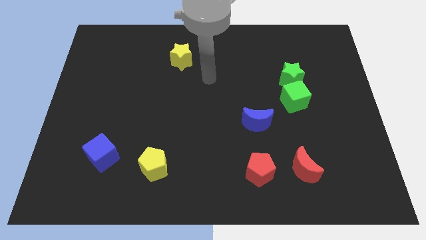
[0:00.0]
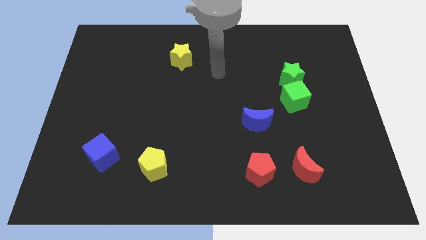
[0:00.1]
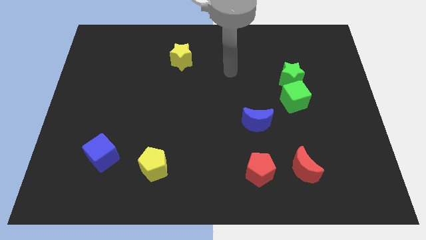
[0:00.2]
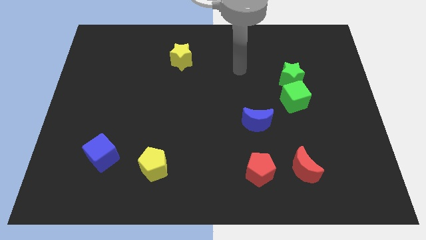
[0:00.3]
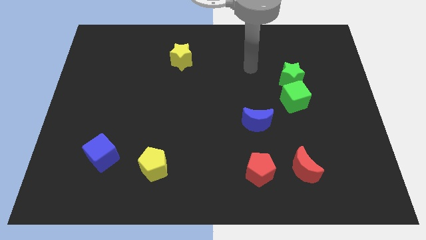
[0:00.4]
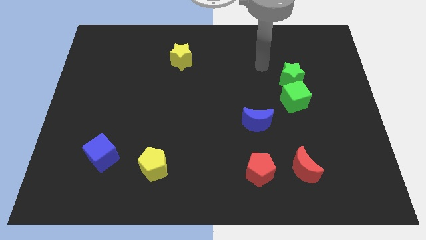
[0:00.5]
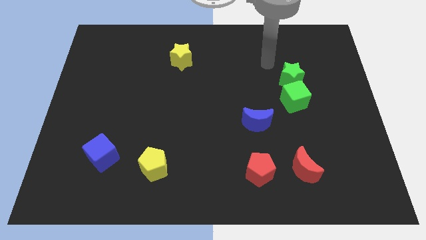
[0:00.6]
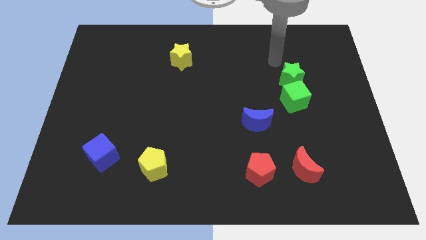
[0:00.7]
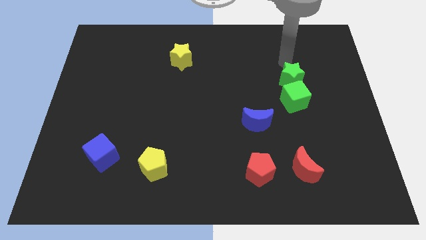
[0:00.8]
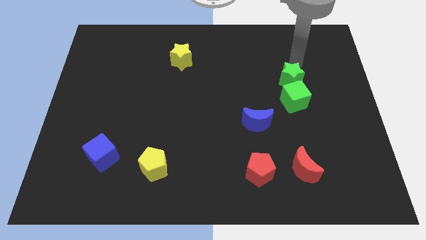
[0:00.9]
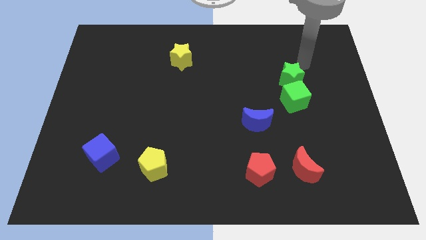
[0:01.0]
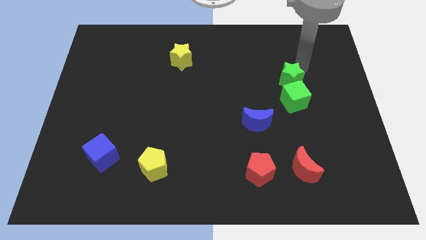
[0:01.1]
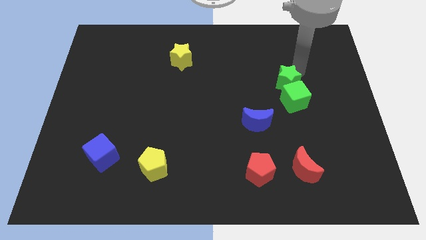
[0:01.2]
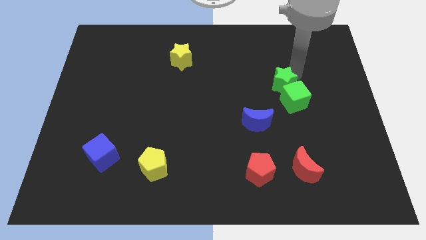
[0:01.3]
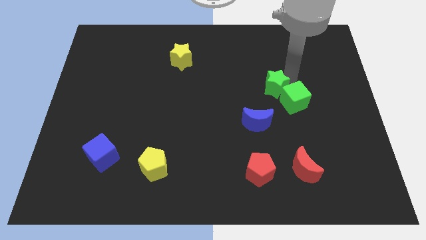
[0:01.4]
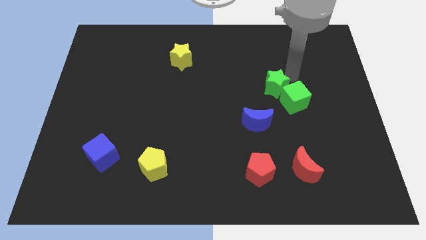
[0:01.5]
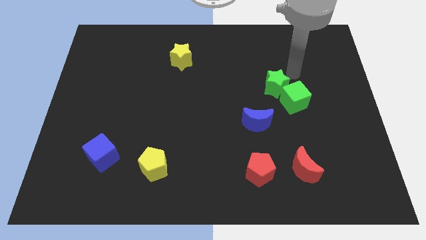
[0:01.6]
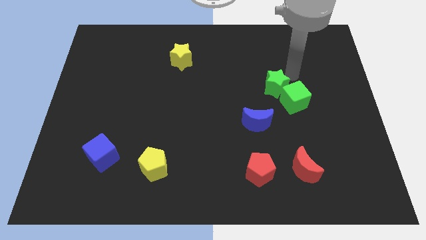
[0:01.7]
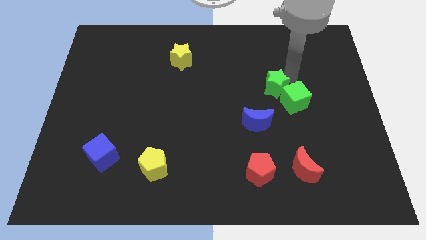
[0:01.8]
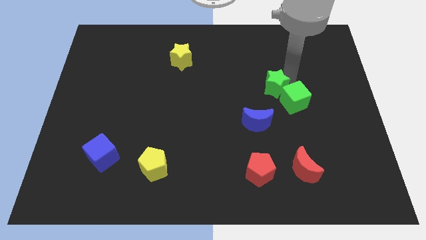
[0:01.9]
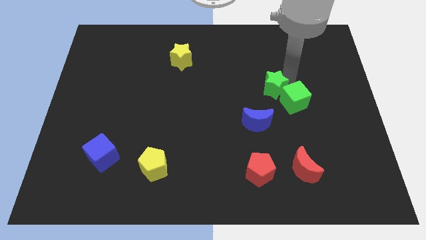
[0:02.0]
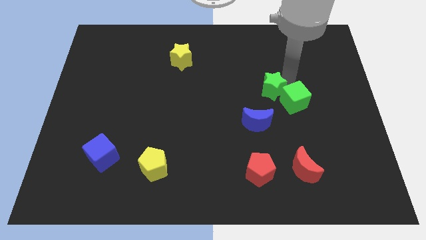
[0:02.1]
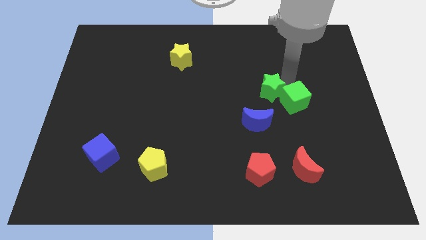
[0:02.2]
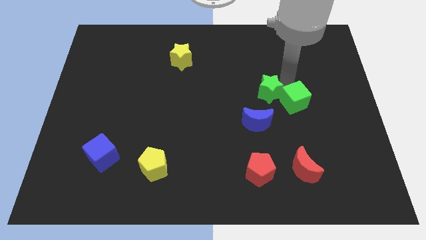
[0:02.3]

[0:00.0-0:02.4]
slide the green star down and then left a bit

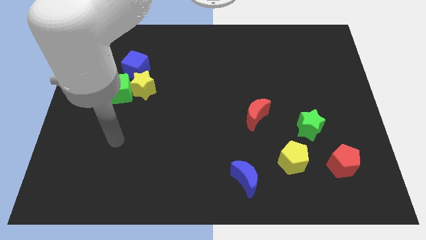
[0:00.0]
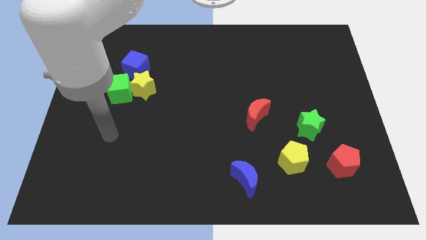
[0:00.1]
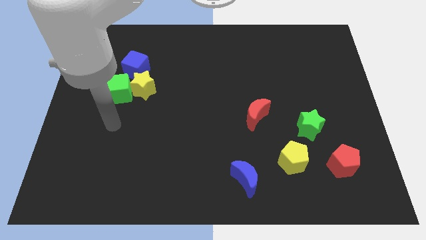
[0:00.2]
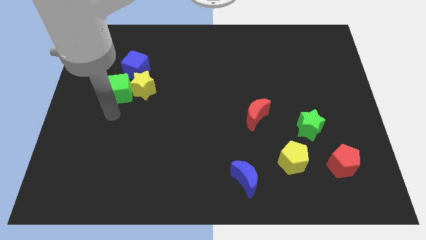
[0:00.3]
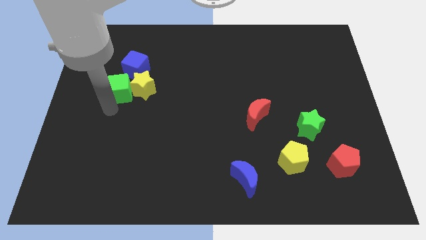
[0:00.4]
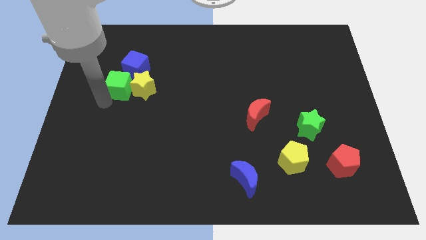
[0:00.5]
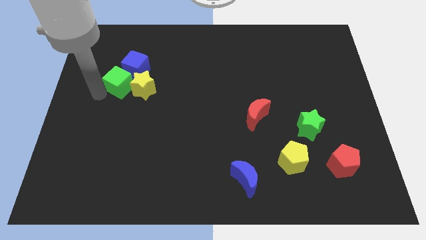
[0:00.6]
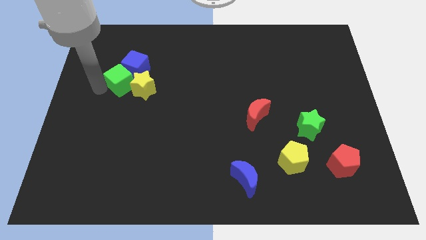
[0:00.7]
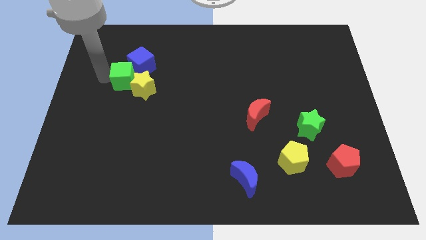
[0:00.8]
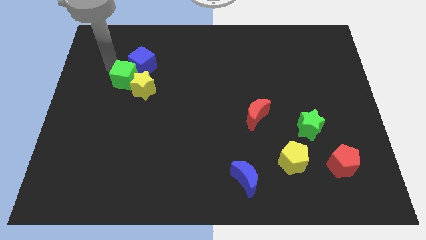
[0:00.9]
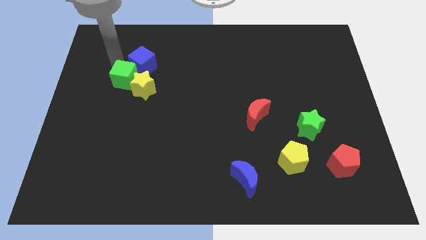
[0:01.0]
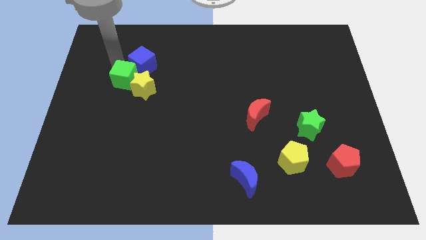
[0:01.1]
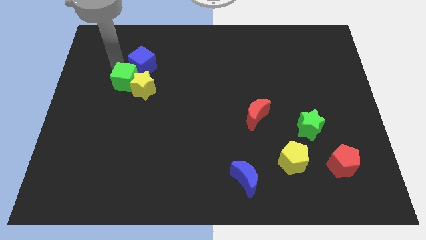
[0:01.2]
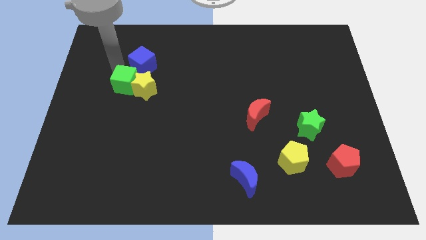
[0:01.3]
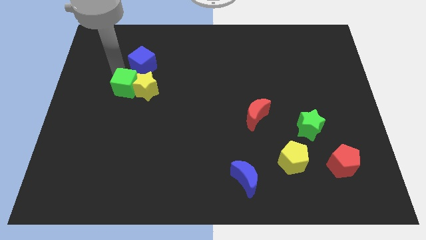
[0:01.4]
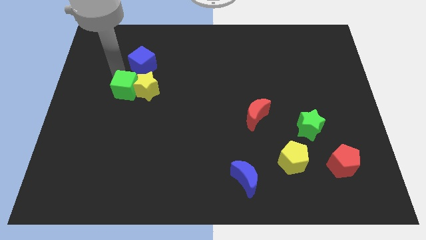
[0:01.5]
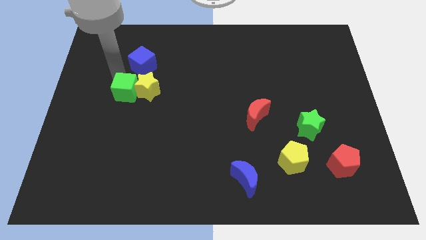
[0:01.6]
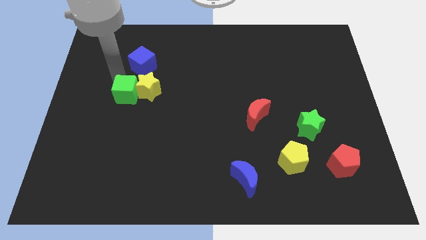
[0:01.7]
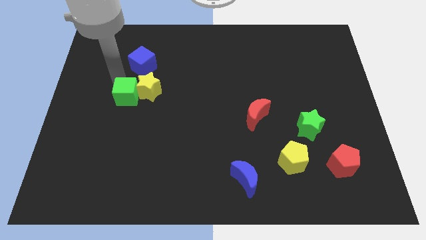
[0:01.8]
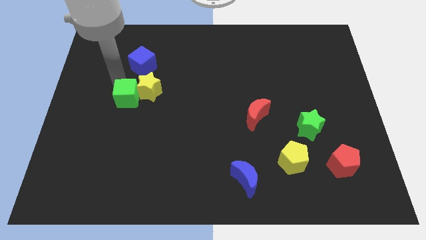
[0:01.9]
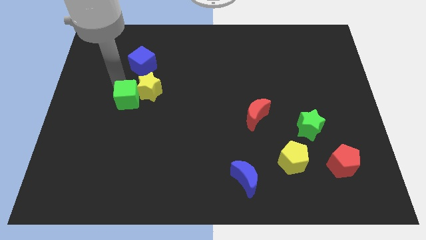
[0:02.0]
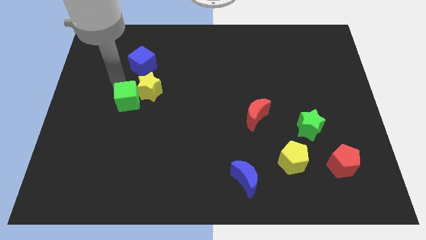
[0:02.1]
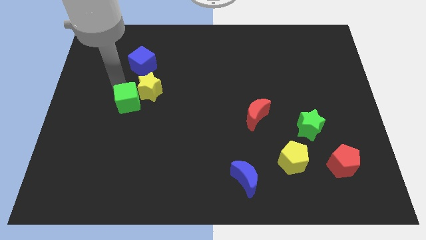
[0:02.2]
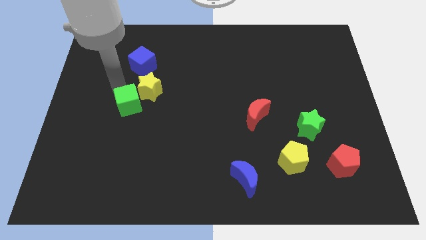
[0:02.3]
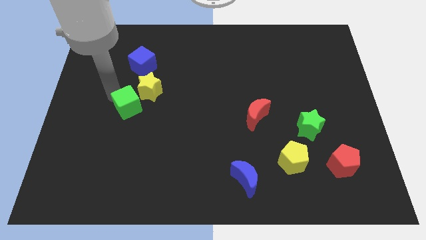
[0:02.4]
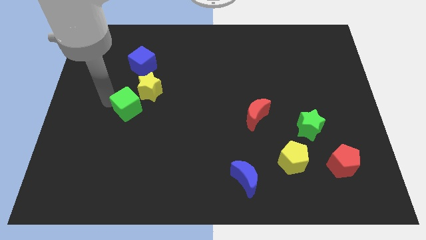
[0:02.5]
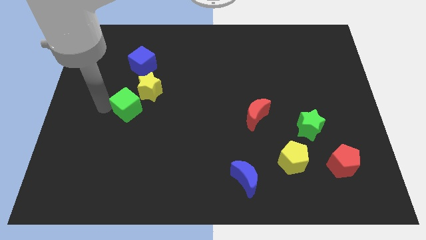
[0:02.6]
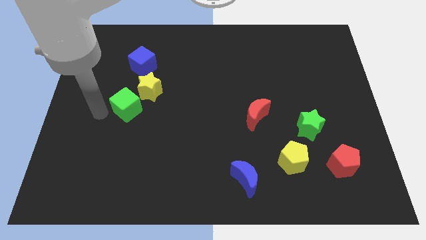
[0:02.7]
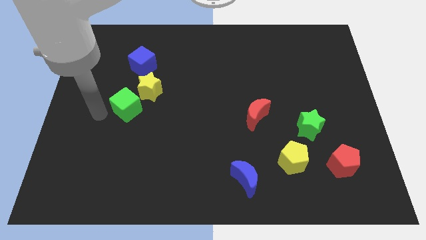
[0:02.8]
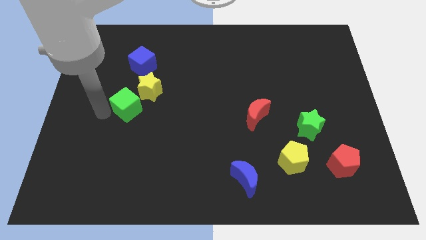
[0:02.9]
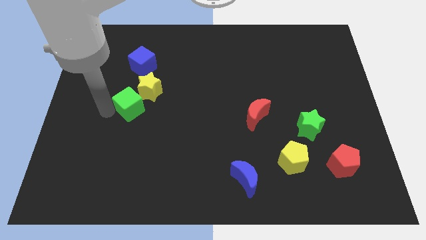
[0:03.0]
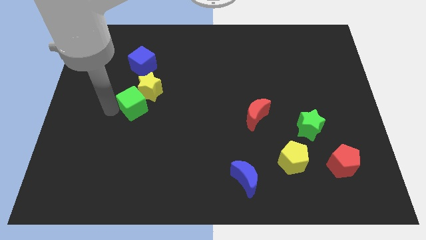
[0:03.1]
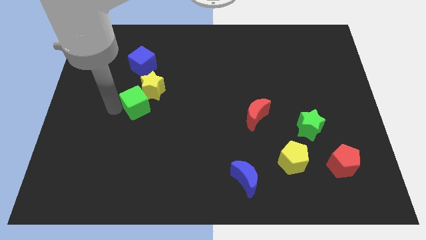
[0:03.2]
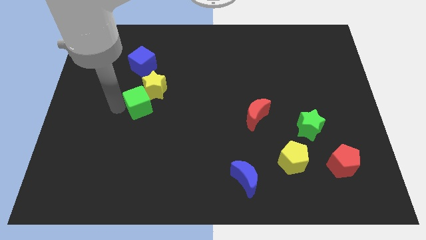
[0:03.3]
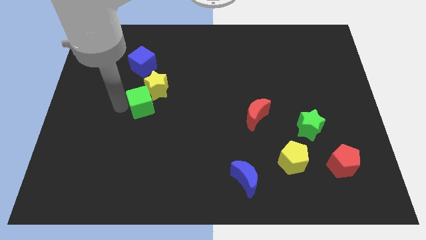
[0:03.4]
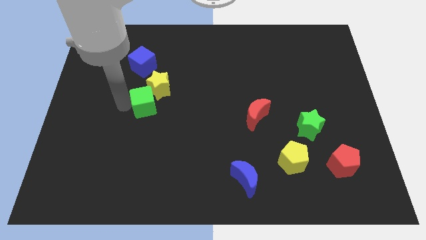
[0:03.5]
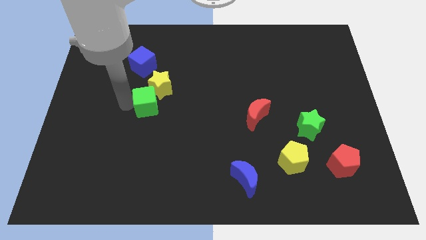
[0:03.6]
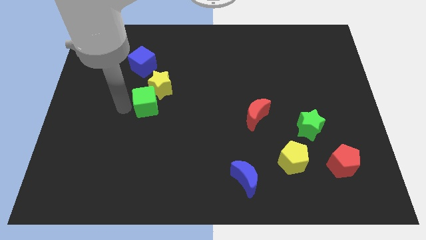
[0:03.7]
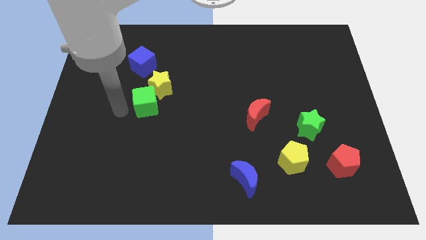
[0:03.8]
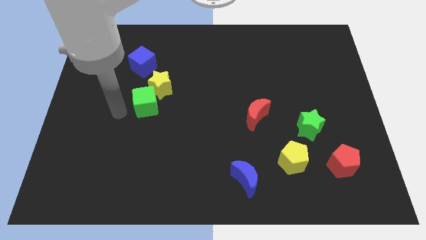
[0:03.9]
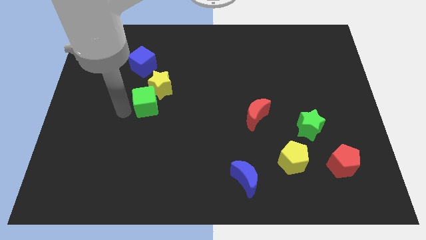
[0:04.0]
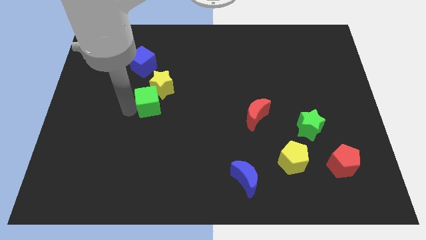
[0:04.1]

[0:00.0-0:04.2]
slightly slide the green cube right

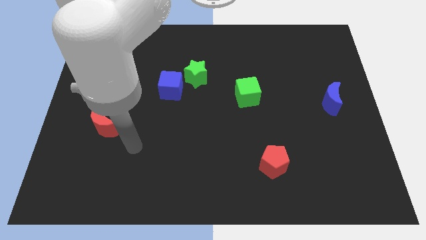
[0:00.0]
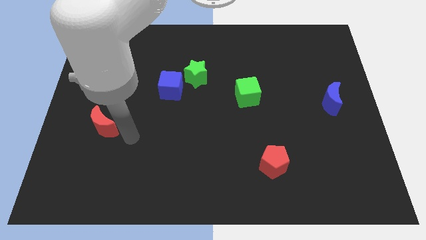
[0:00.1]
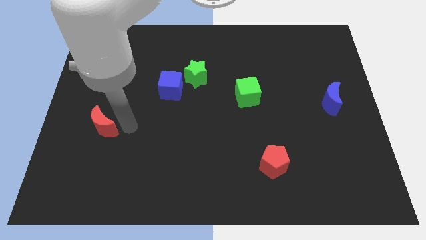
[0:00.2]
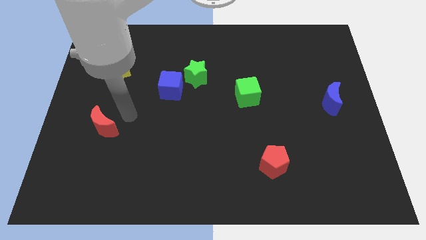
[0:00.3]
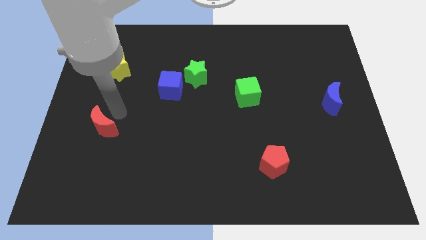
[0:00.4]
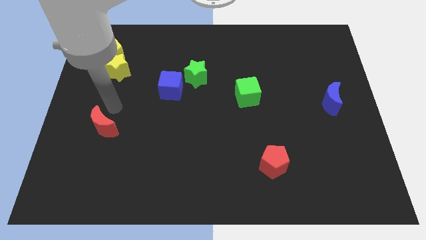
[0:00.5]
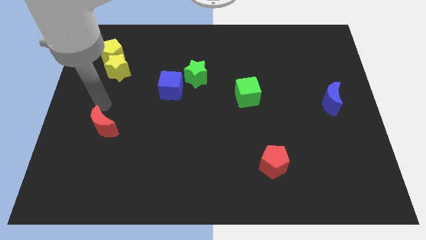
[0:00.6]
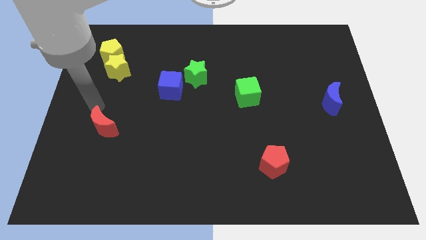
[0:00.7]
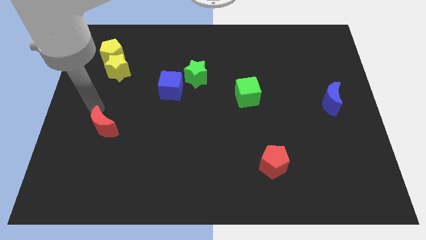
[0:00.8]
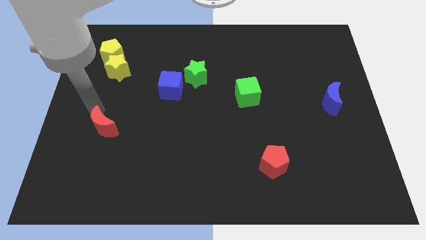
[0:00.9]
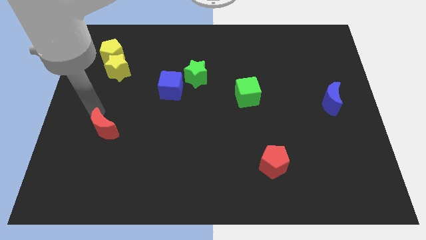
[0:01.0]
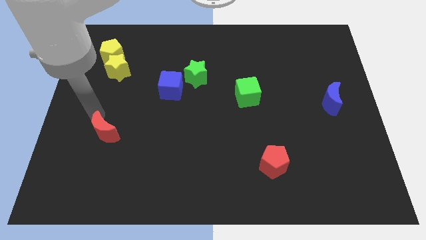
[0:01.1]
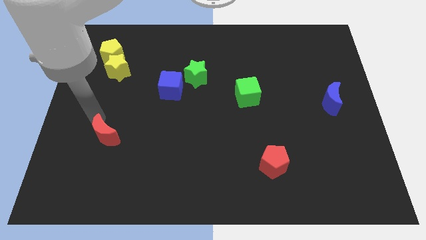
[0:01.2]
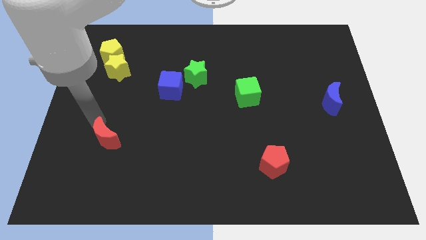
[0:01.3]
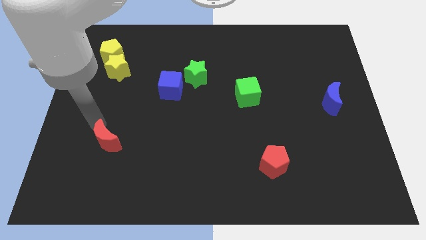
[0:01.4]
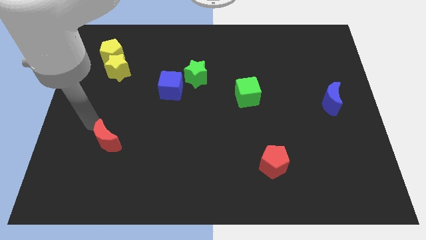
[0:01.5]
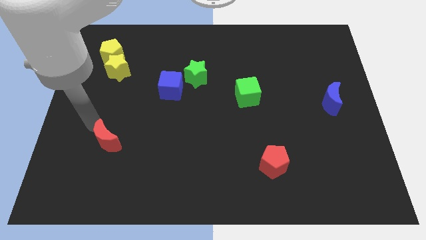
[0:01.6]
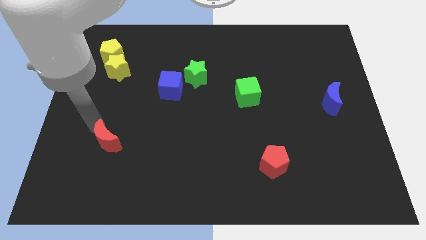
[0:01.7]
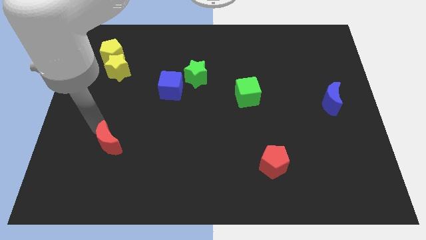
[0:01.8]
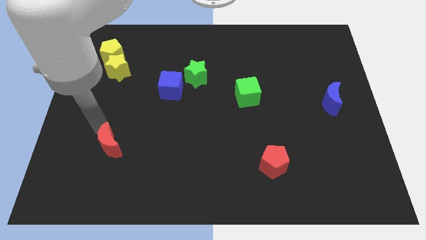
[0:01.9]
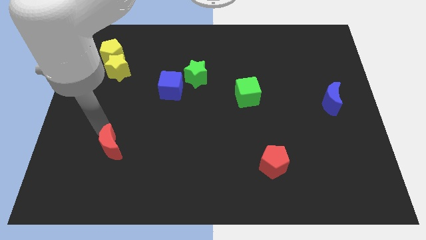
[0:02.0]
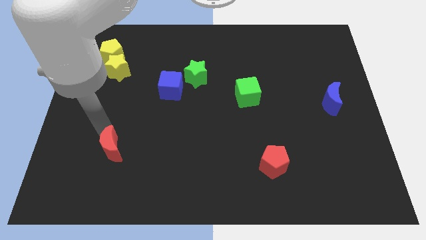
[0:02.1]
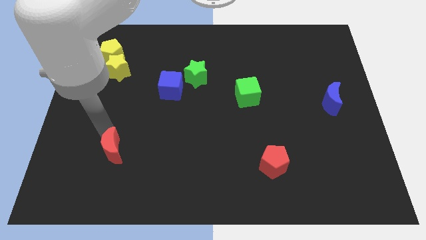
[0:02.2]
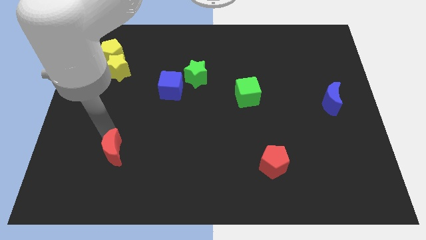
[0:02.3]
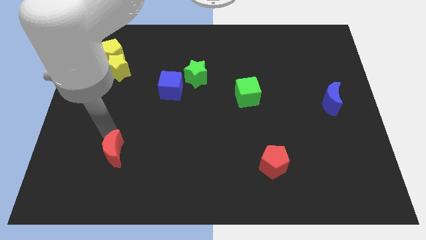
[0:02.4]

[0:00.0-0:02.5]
slightly move the red moon diagonally down and to the right
